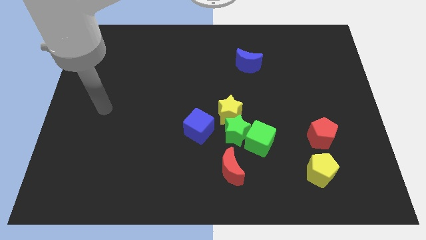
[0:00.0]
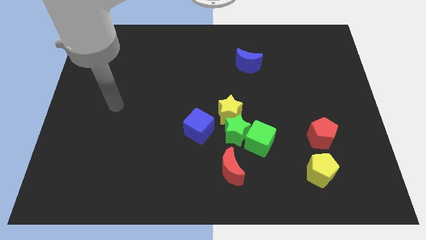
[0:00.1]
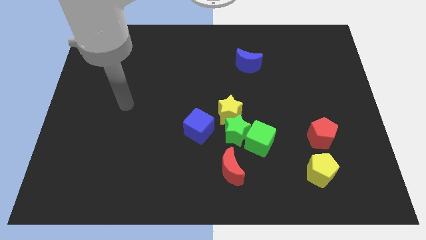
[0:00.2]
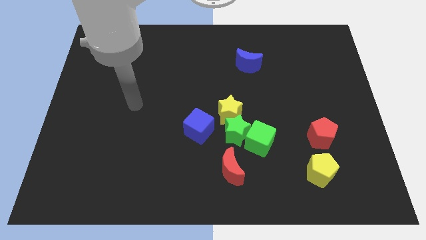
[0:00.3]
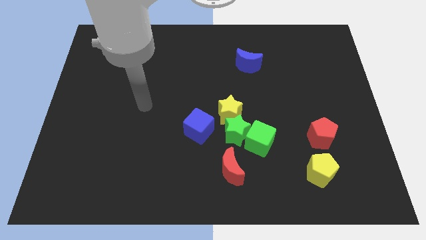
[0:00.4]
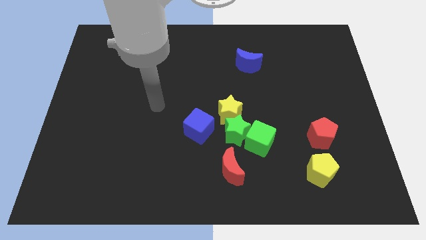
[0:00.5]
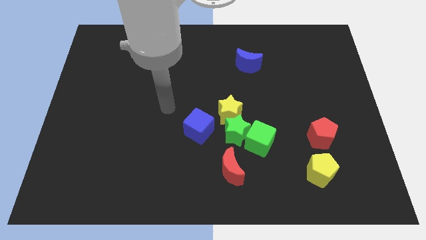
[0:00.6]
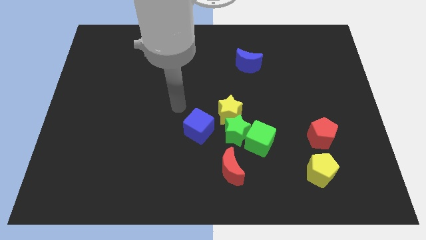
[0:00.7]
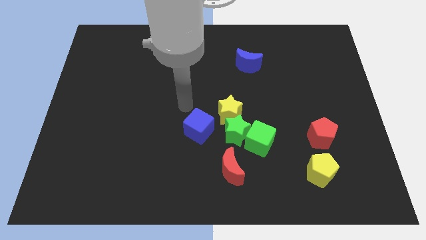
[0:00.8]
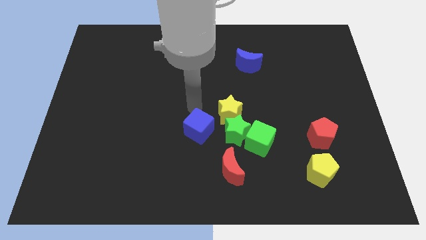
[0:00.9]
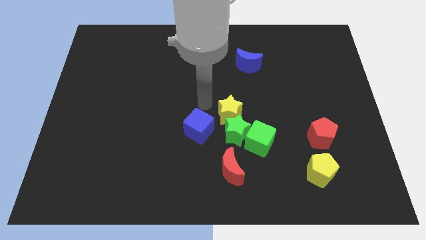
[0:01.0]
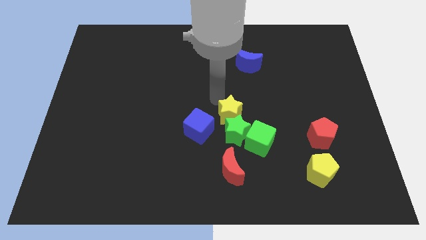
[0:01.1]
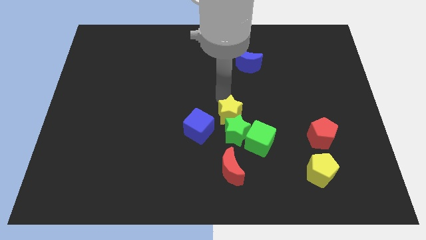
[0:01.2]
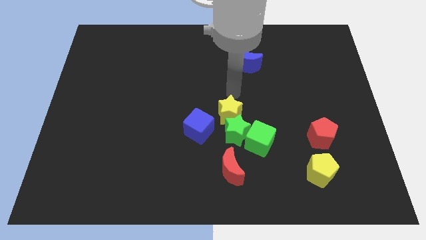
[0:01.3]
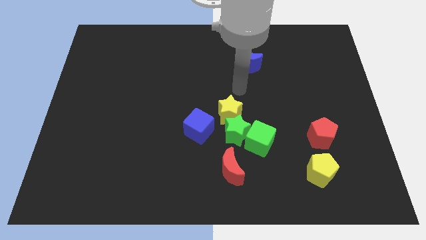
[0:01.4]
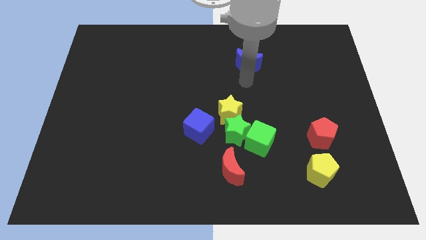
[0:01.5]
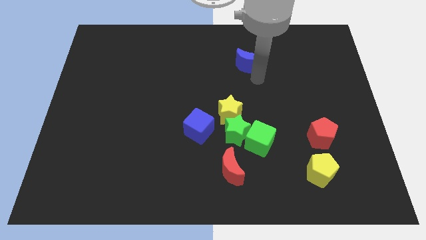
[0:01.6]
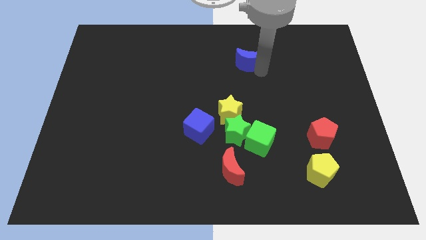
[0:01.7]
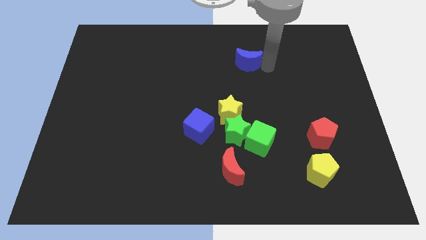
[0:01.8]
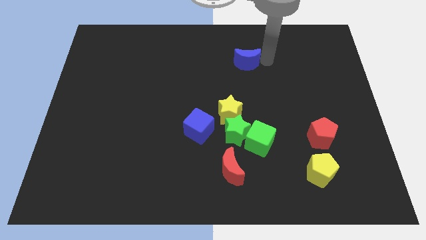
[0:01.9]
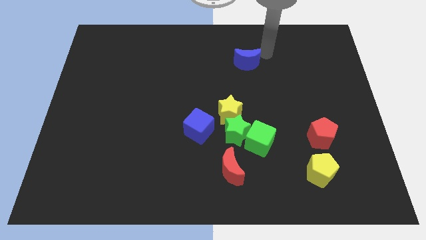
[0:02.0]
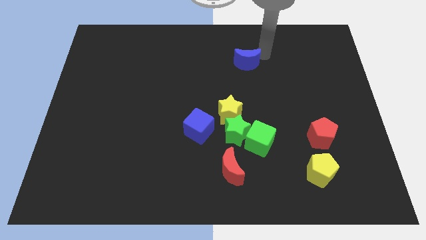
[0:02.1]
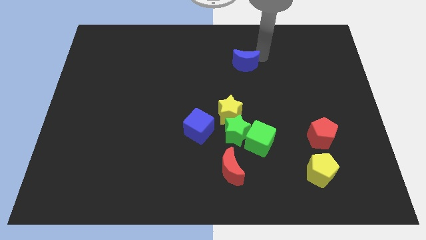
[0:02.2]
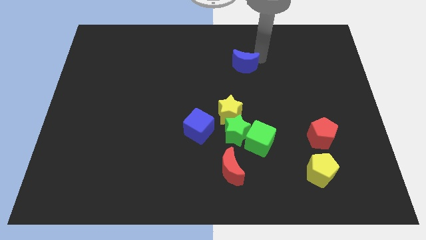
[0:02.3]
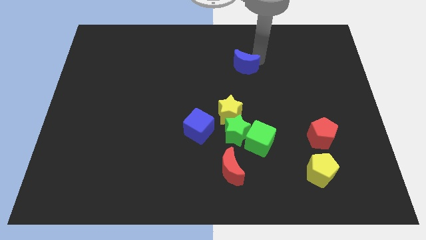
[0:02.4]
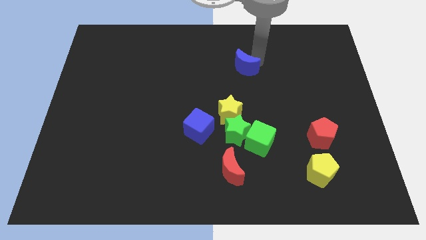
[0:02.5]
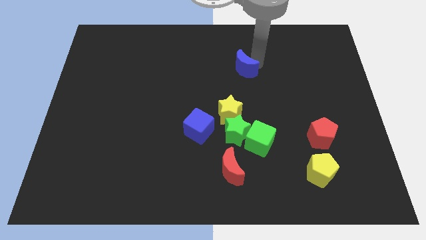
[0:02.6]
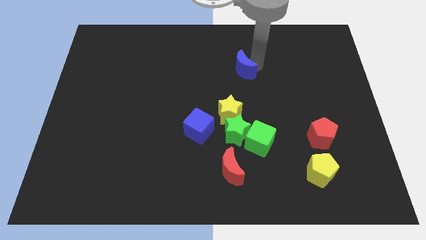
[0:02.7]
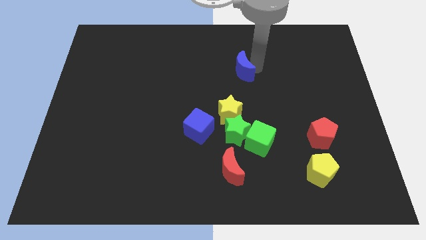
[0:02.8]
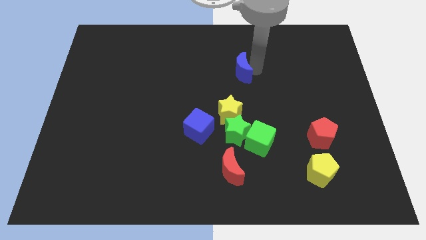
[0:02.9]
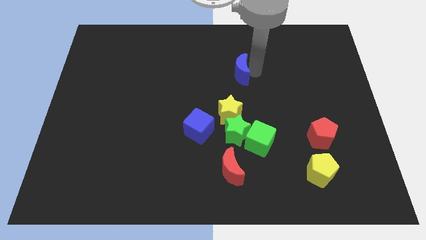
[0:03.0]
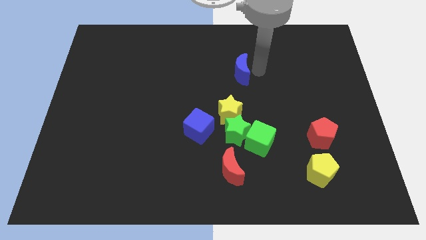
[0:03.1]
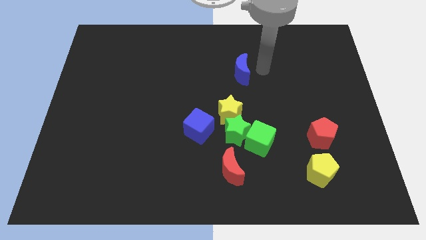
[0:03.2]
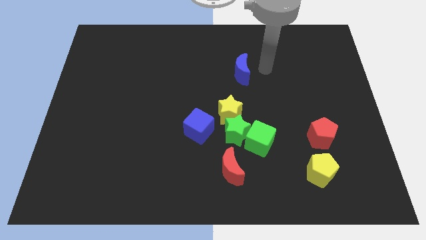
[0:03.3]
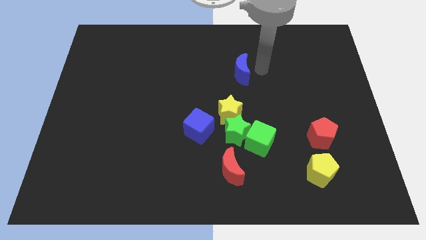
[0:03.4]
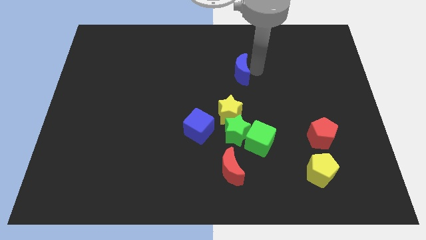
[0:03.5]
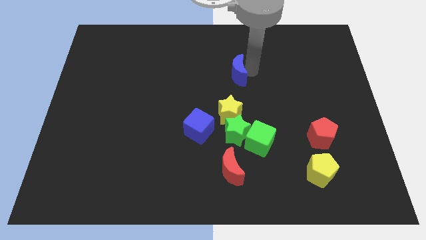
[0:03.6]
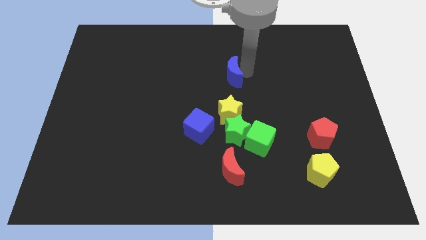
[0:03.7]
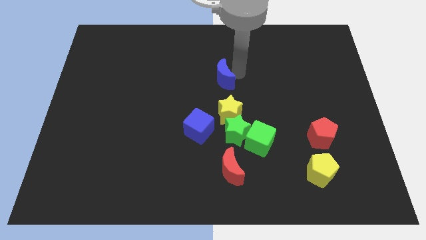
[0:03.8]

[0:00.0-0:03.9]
slightly slide the blue moon downwards and to the left diagonally

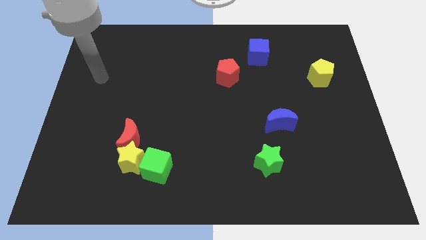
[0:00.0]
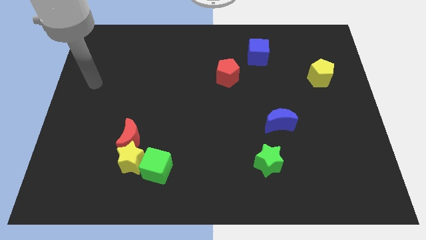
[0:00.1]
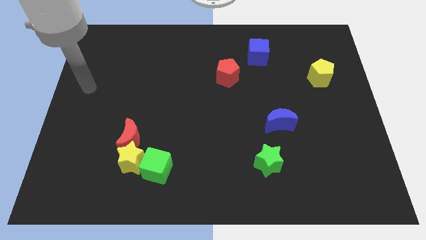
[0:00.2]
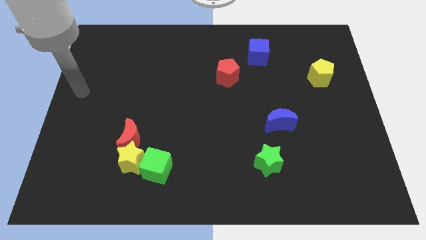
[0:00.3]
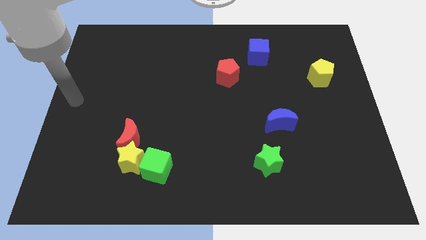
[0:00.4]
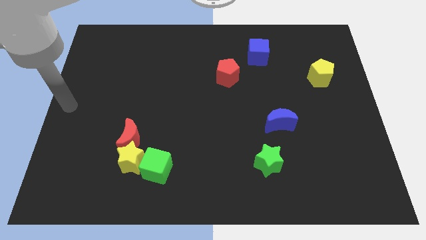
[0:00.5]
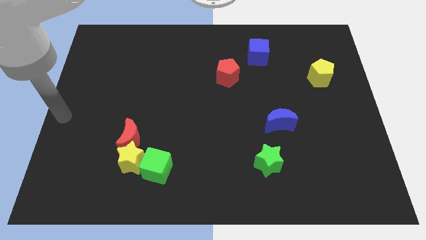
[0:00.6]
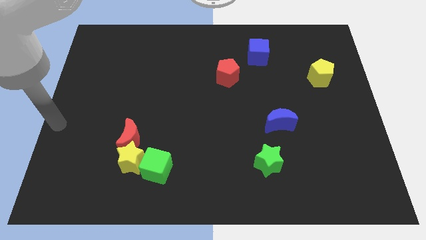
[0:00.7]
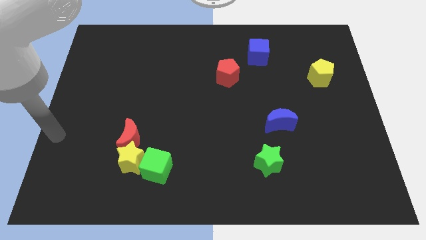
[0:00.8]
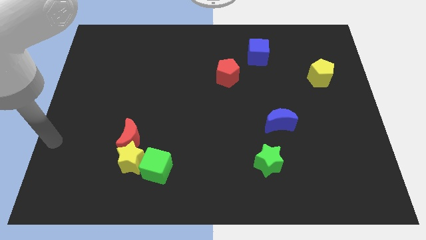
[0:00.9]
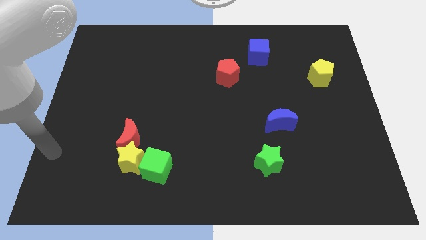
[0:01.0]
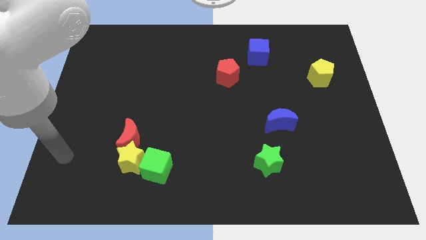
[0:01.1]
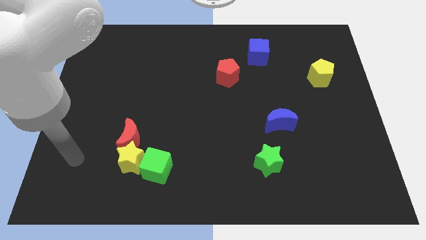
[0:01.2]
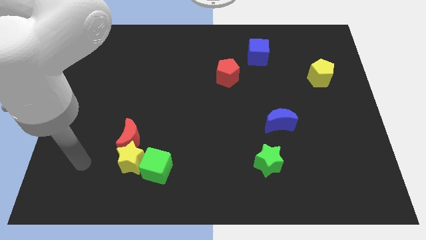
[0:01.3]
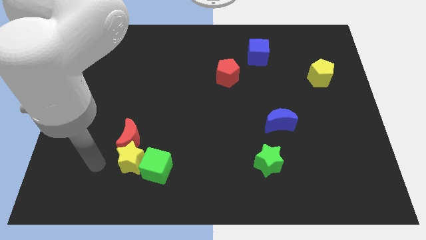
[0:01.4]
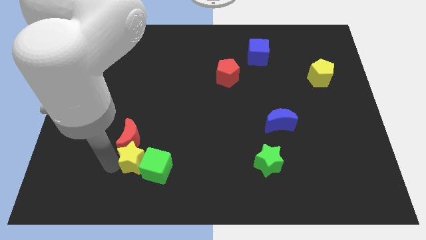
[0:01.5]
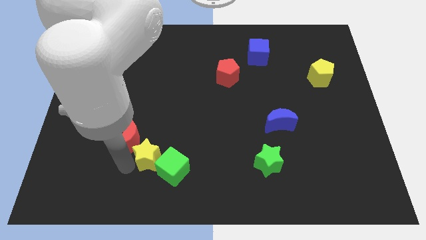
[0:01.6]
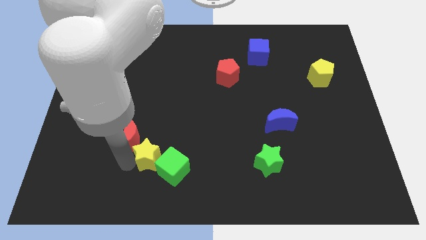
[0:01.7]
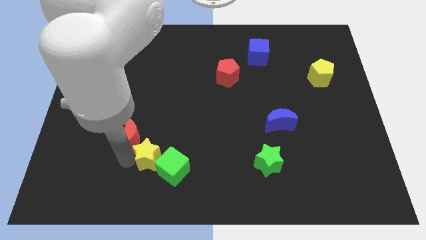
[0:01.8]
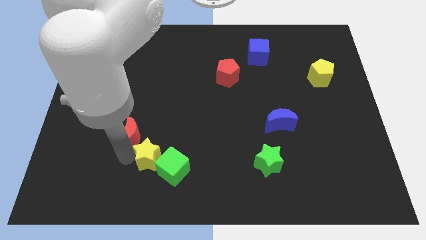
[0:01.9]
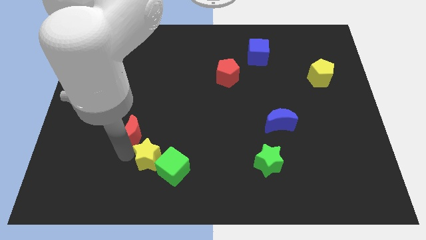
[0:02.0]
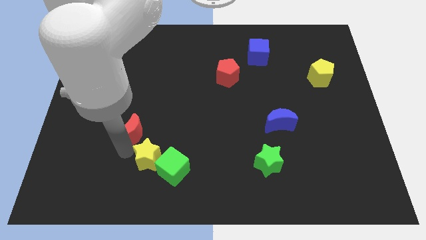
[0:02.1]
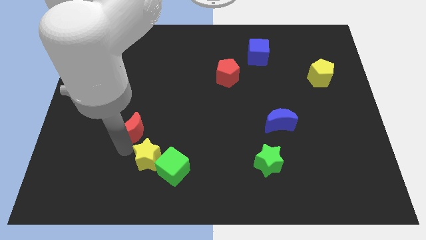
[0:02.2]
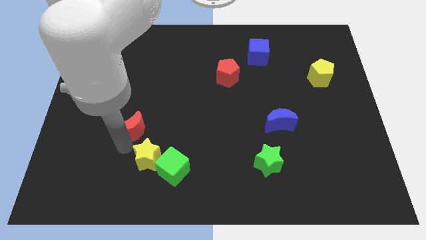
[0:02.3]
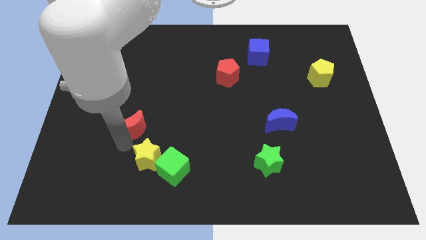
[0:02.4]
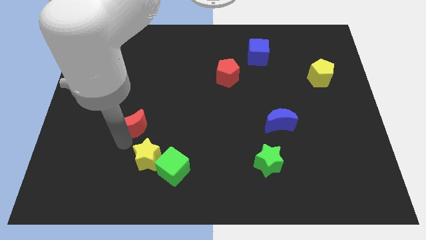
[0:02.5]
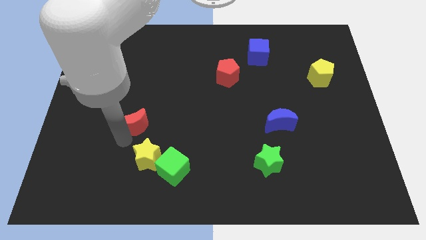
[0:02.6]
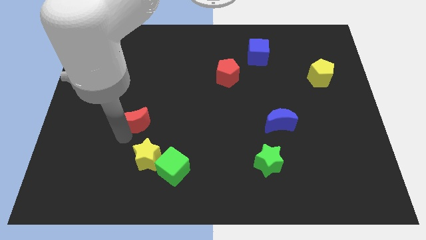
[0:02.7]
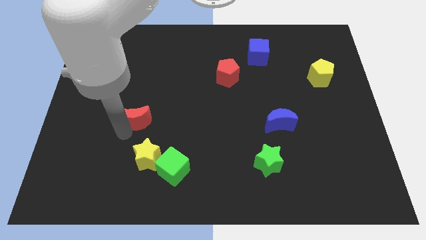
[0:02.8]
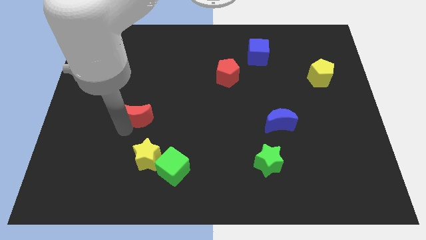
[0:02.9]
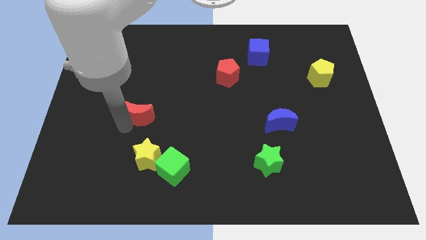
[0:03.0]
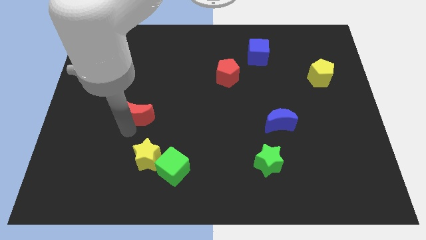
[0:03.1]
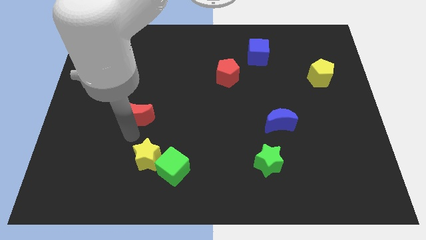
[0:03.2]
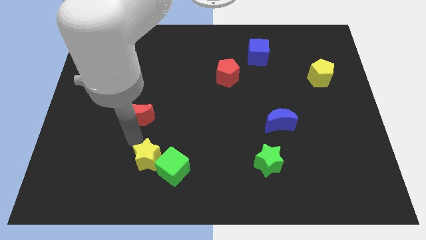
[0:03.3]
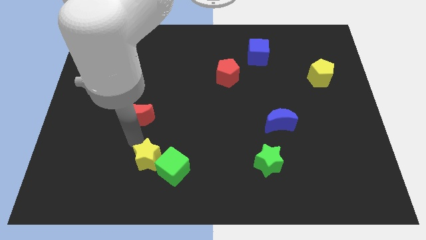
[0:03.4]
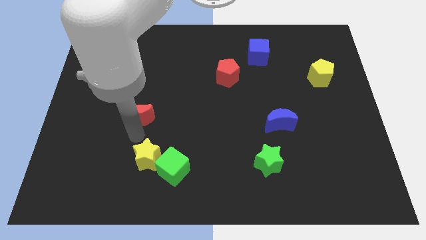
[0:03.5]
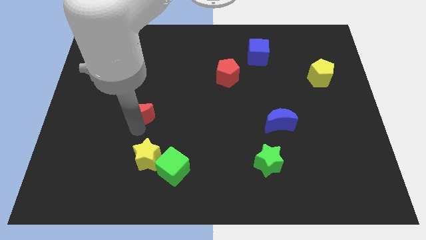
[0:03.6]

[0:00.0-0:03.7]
slightly move the red moon upwards

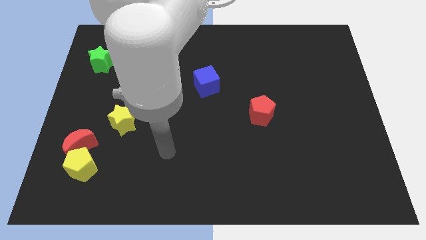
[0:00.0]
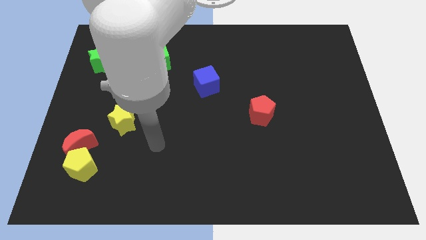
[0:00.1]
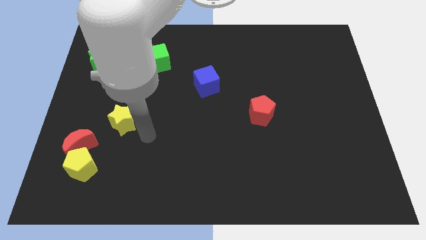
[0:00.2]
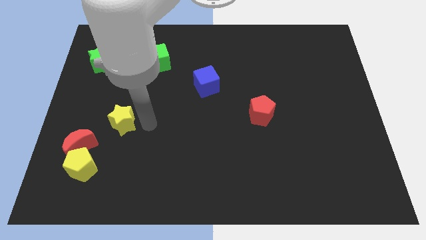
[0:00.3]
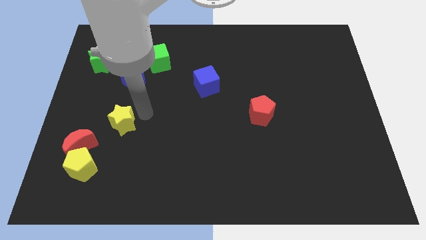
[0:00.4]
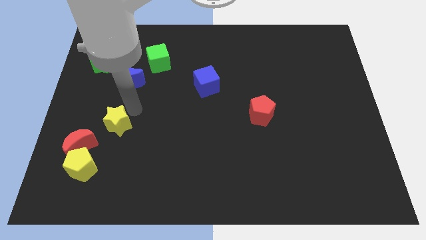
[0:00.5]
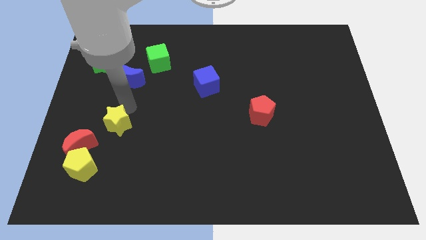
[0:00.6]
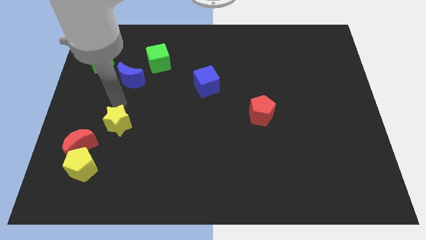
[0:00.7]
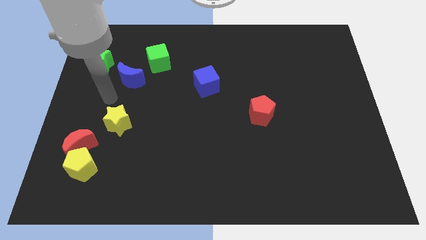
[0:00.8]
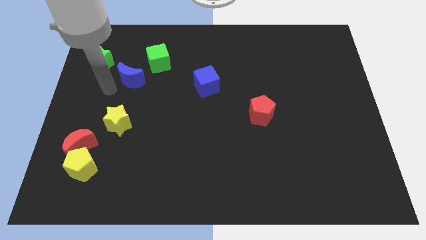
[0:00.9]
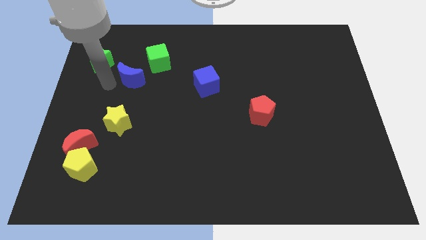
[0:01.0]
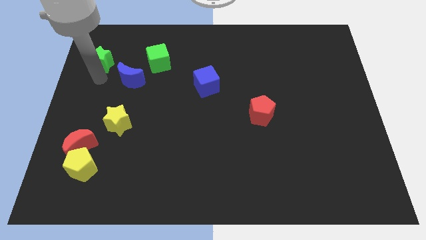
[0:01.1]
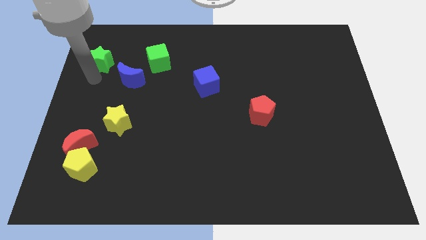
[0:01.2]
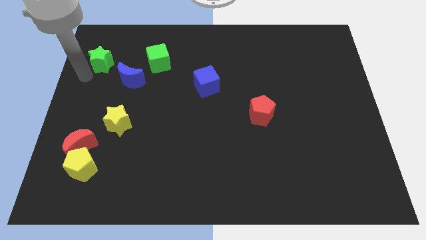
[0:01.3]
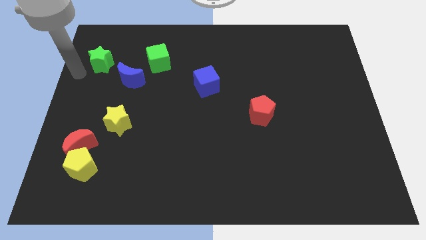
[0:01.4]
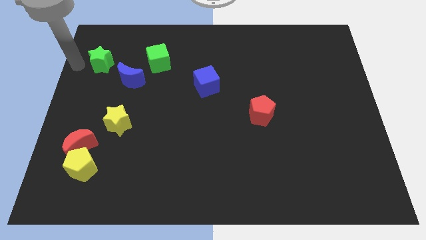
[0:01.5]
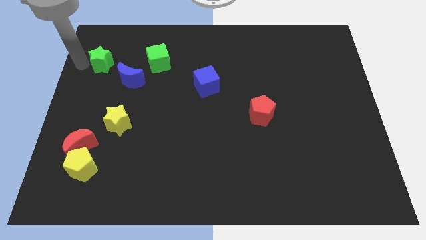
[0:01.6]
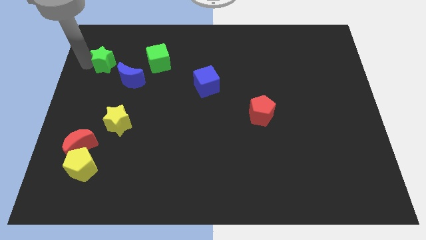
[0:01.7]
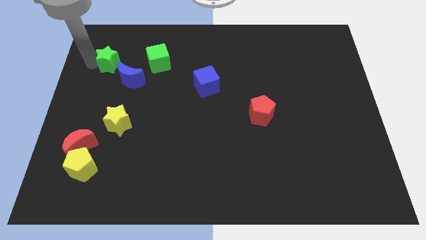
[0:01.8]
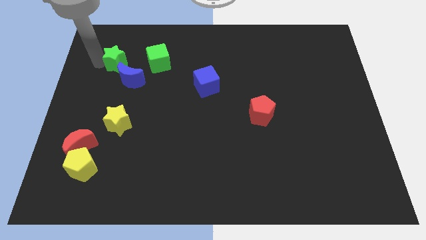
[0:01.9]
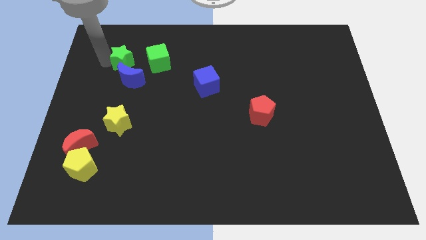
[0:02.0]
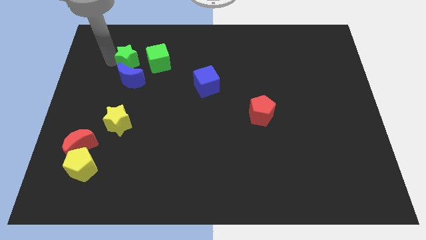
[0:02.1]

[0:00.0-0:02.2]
slightly move the green star to the right
